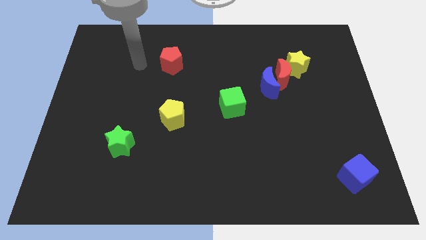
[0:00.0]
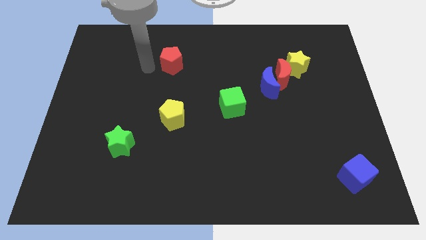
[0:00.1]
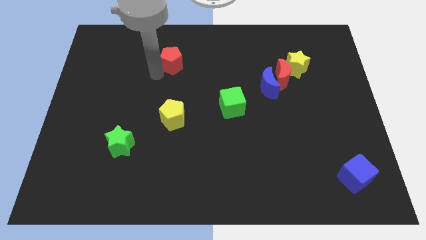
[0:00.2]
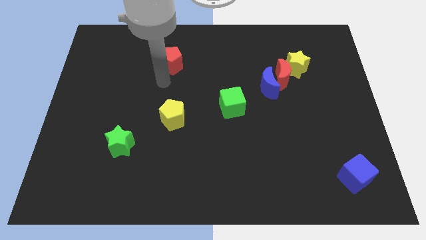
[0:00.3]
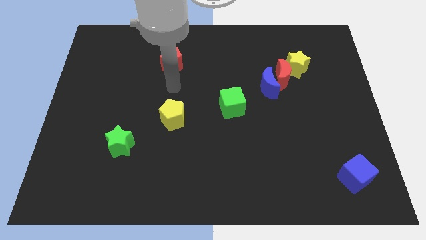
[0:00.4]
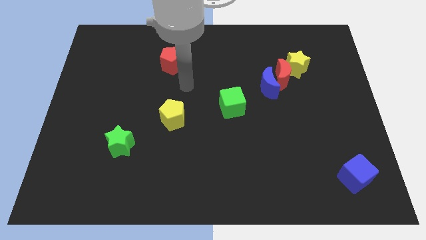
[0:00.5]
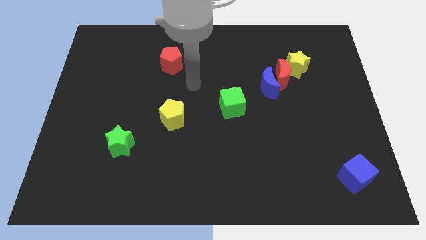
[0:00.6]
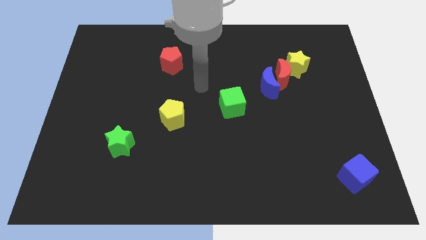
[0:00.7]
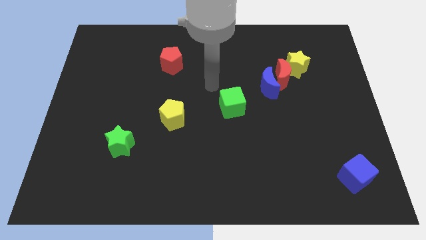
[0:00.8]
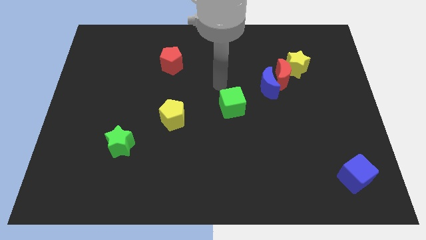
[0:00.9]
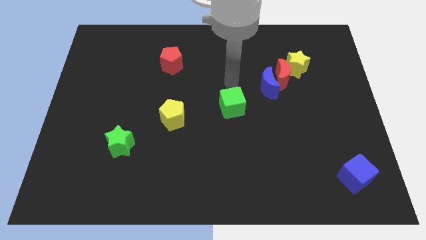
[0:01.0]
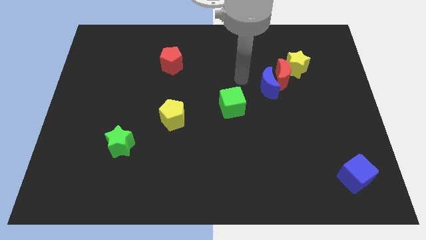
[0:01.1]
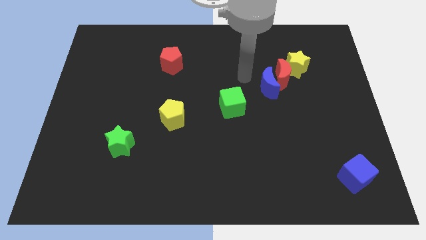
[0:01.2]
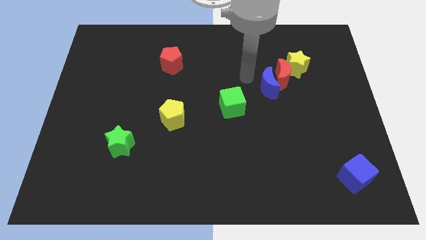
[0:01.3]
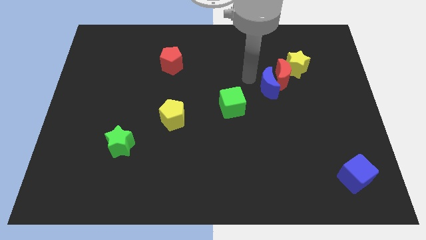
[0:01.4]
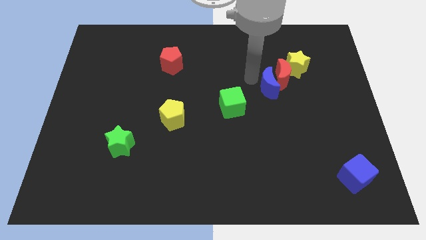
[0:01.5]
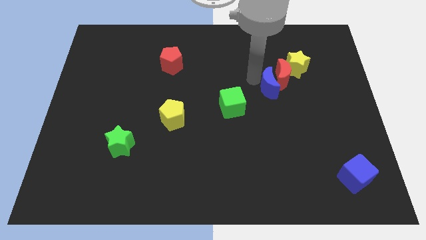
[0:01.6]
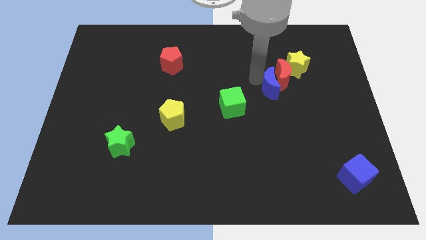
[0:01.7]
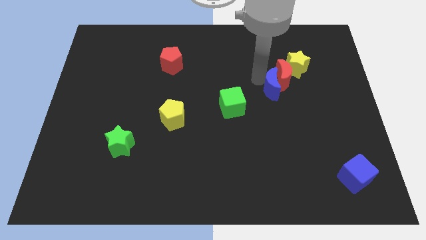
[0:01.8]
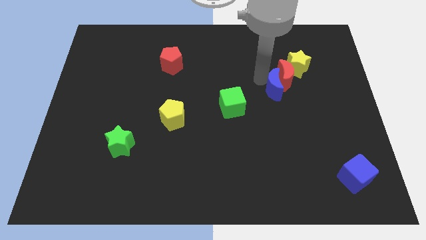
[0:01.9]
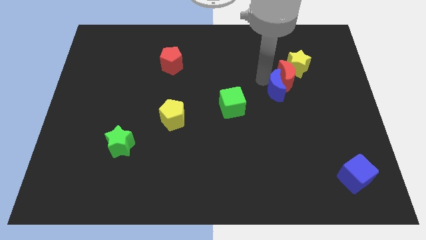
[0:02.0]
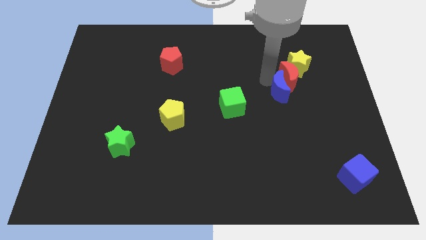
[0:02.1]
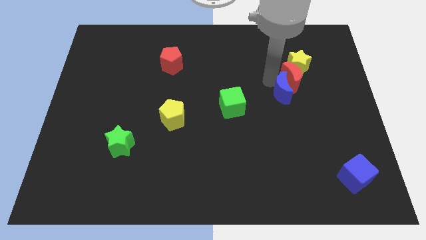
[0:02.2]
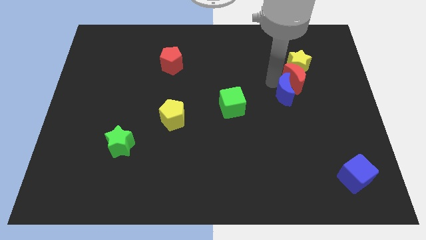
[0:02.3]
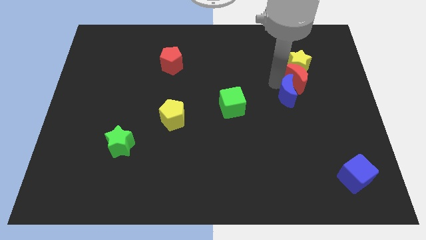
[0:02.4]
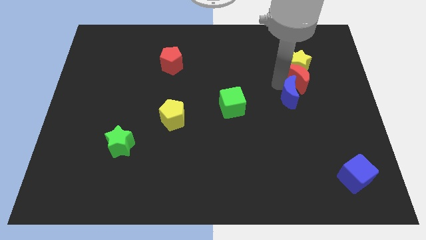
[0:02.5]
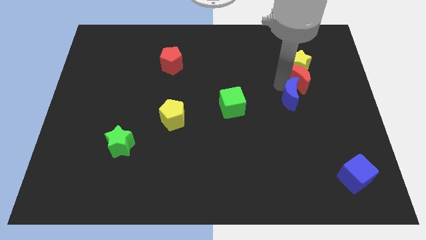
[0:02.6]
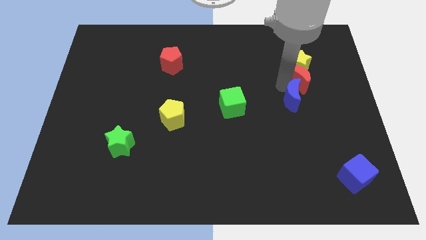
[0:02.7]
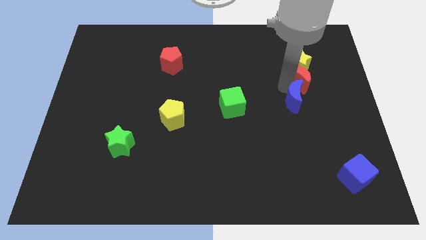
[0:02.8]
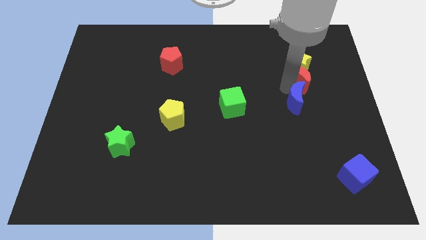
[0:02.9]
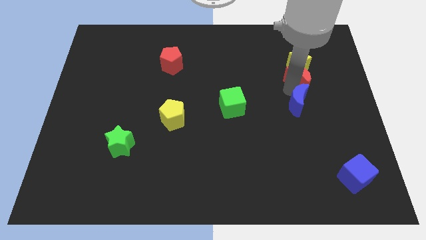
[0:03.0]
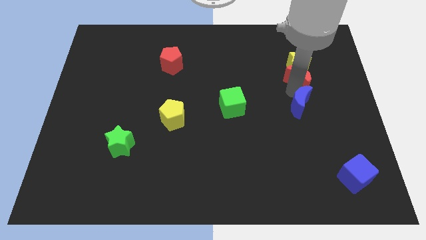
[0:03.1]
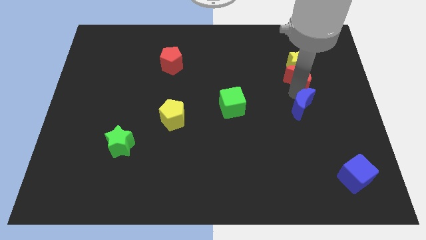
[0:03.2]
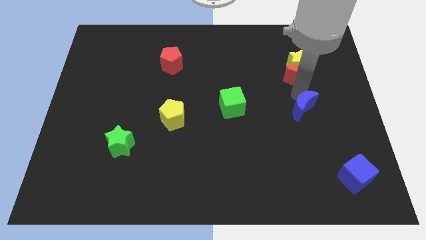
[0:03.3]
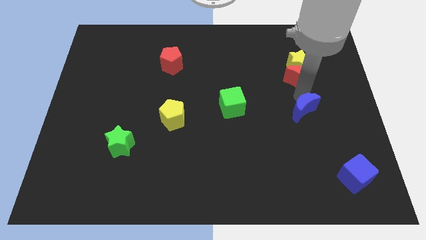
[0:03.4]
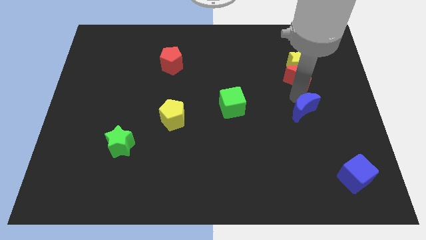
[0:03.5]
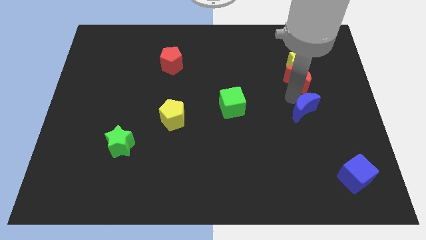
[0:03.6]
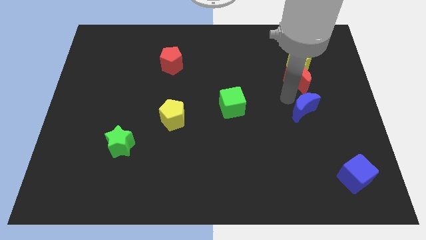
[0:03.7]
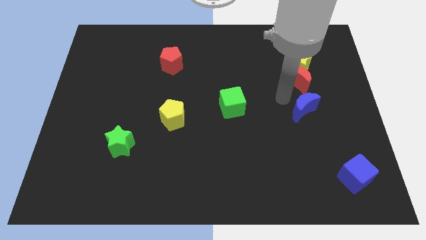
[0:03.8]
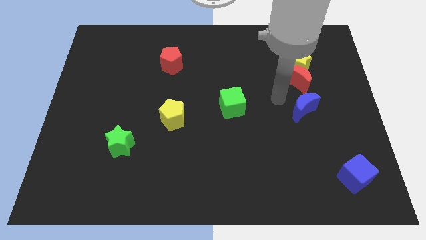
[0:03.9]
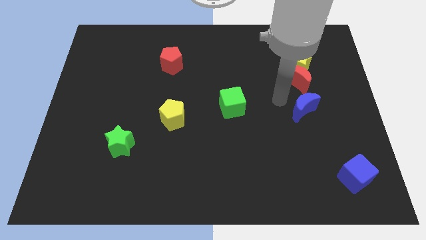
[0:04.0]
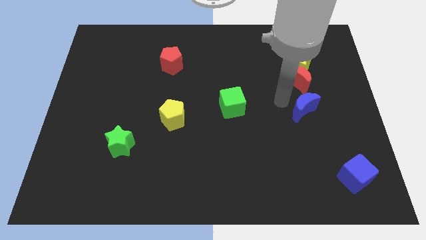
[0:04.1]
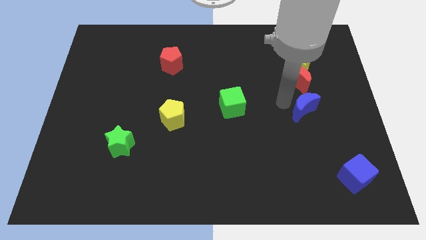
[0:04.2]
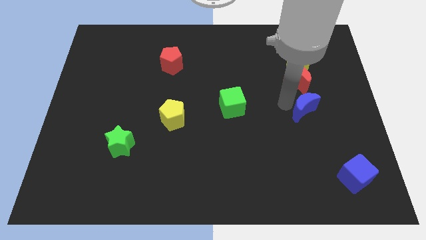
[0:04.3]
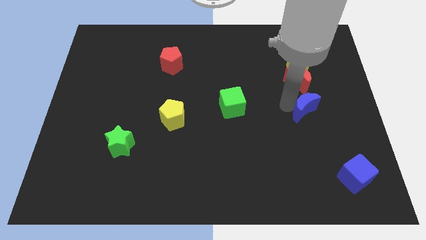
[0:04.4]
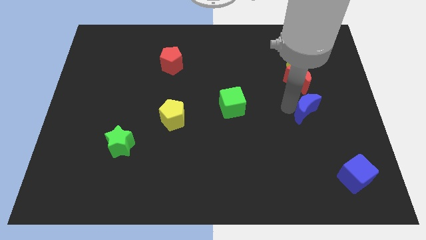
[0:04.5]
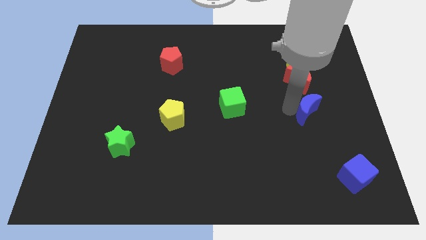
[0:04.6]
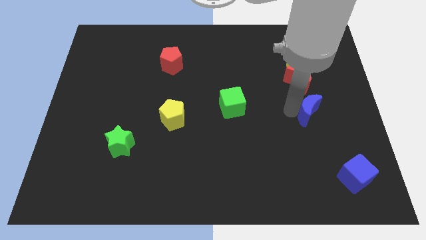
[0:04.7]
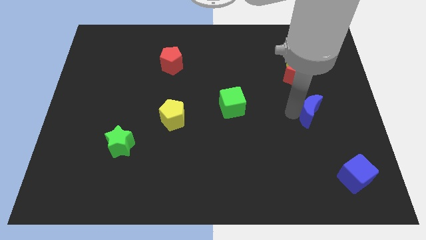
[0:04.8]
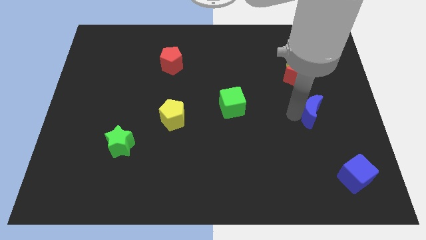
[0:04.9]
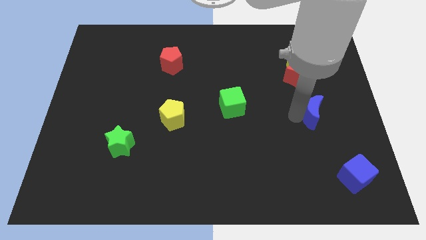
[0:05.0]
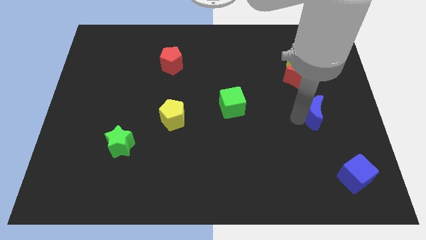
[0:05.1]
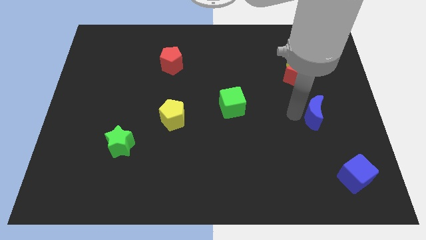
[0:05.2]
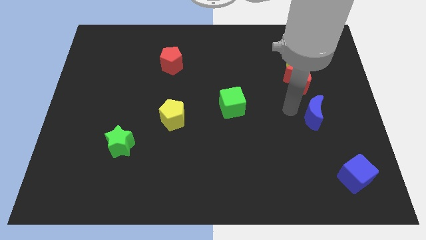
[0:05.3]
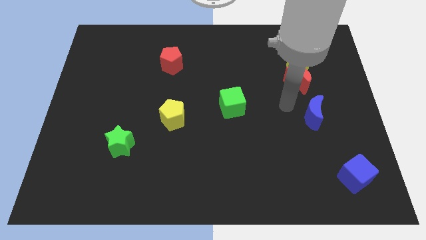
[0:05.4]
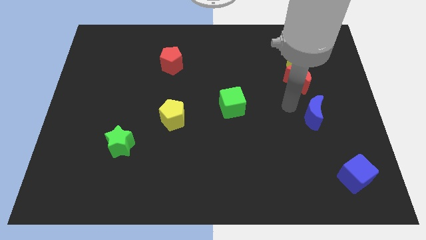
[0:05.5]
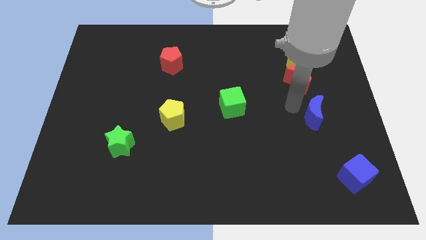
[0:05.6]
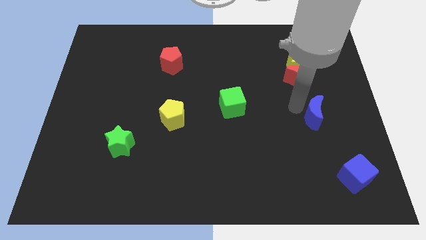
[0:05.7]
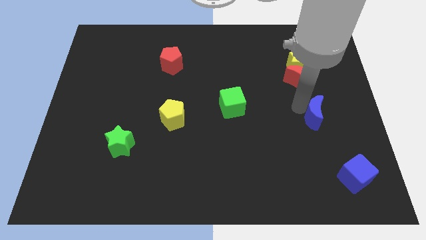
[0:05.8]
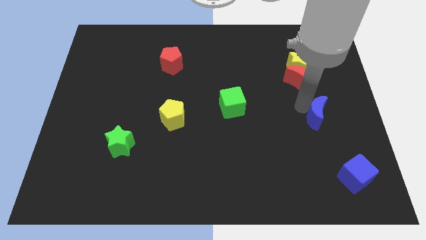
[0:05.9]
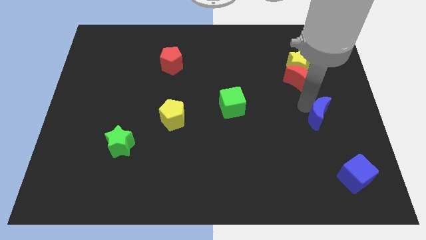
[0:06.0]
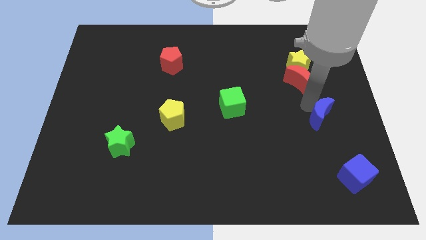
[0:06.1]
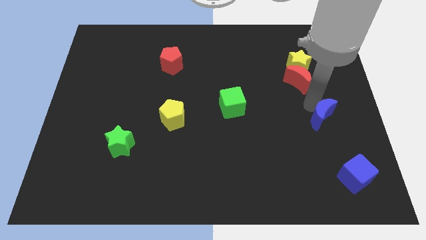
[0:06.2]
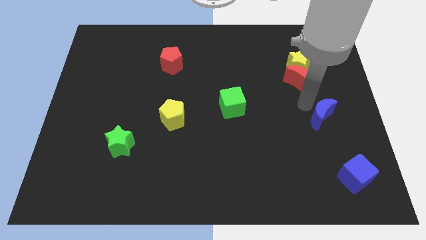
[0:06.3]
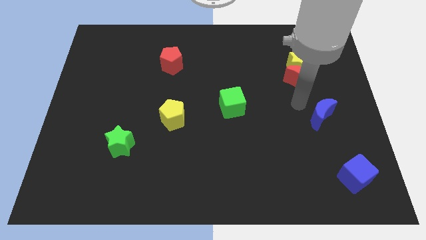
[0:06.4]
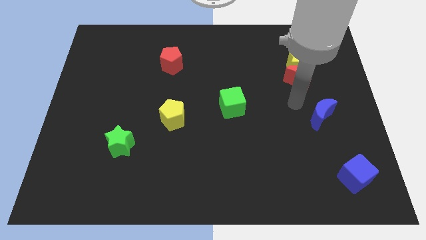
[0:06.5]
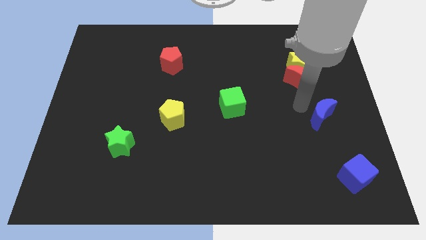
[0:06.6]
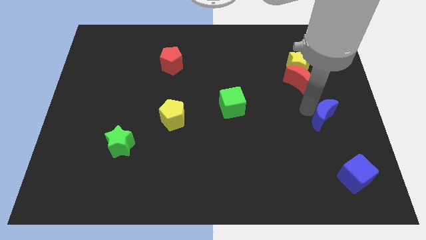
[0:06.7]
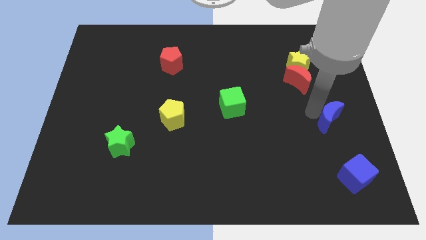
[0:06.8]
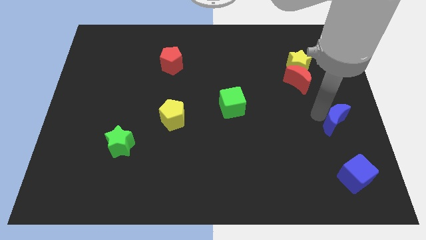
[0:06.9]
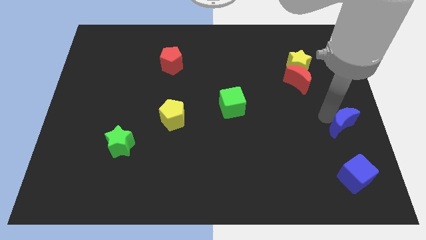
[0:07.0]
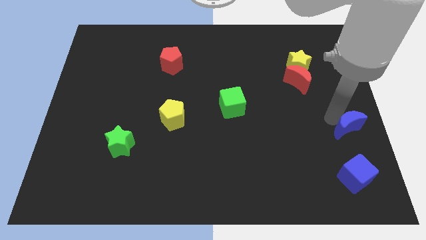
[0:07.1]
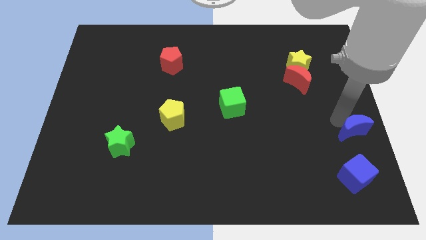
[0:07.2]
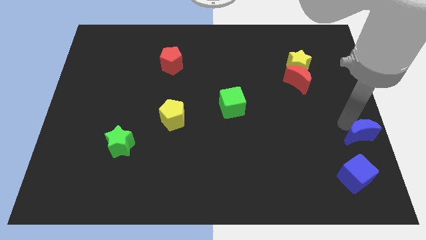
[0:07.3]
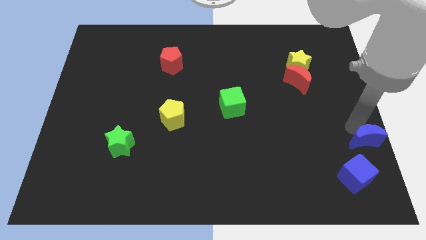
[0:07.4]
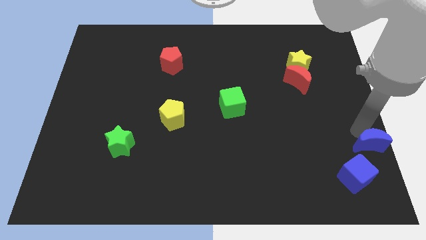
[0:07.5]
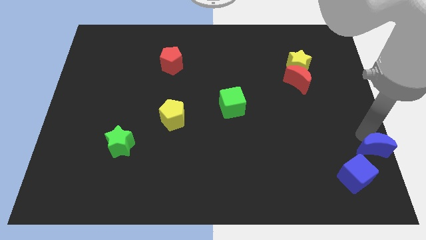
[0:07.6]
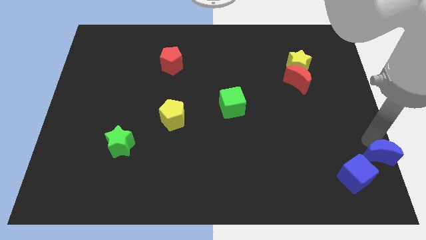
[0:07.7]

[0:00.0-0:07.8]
push the blue moon to the bottom right corner
